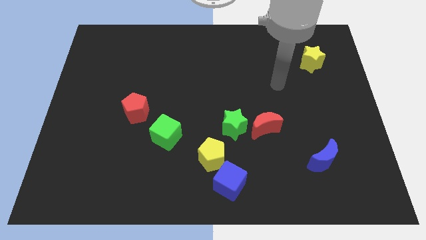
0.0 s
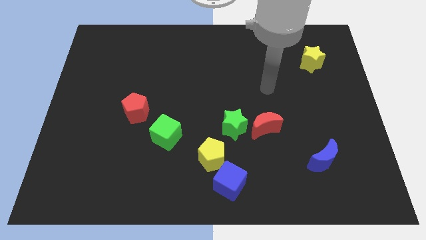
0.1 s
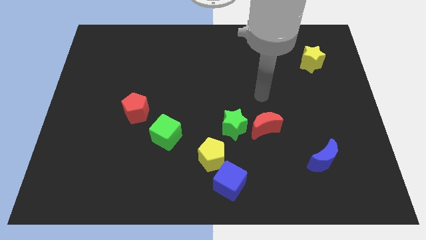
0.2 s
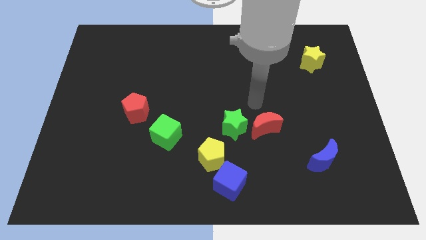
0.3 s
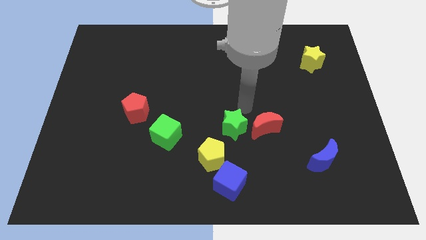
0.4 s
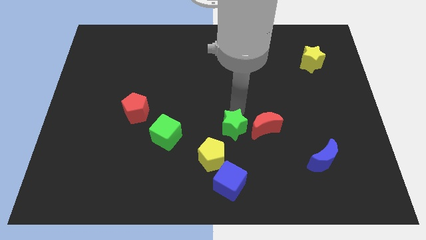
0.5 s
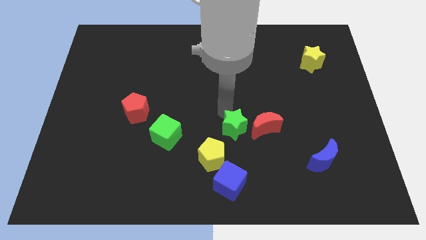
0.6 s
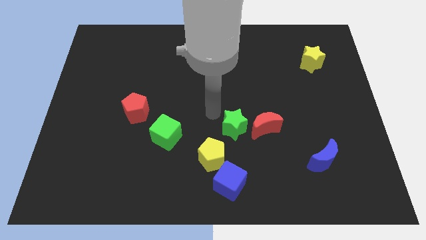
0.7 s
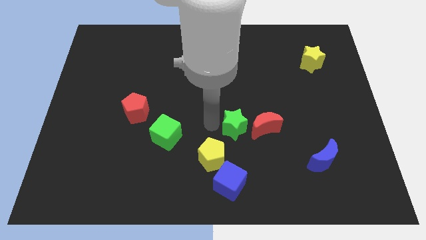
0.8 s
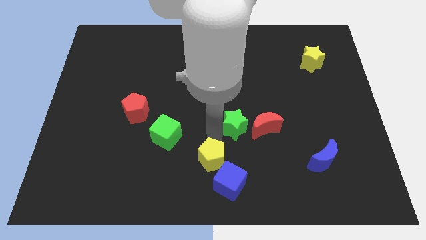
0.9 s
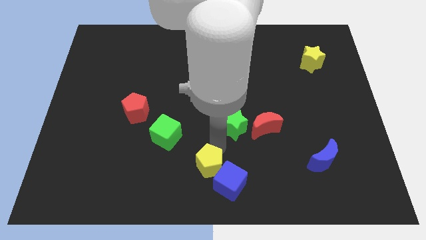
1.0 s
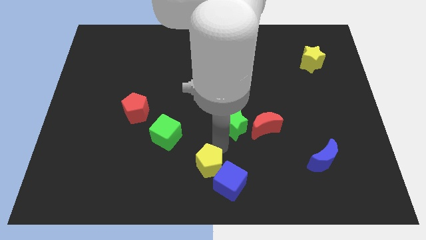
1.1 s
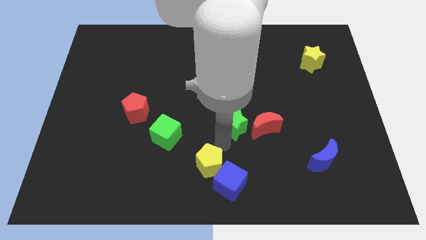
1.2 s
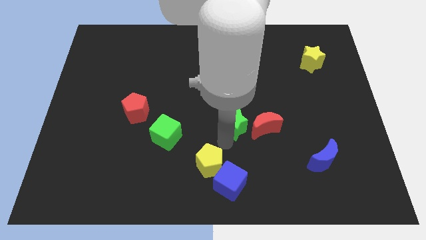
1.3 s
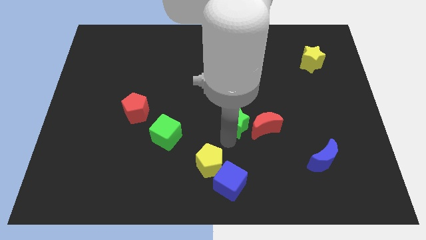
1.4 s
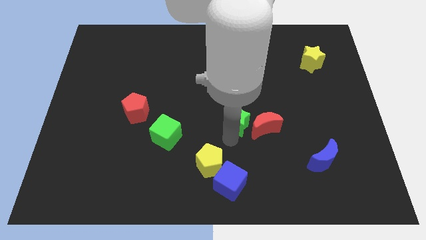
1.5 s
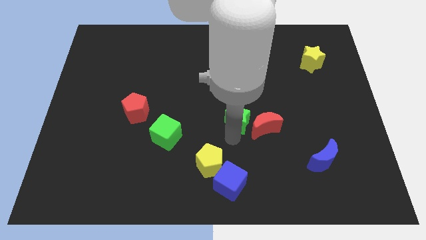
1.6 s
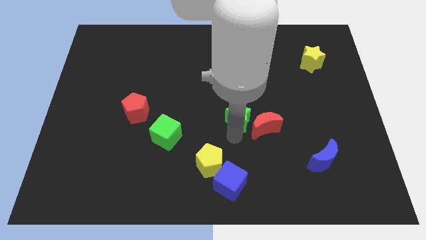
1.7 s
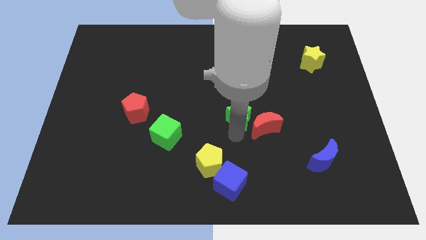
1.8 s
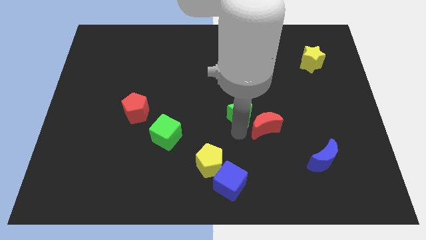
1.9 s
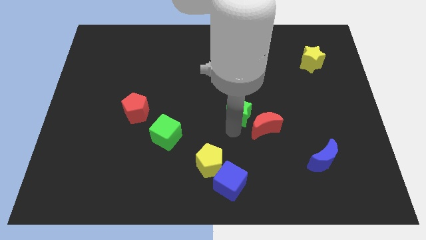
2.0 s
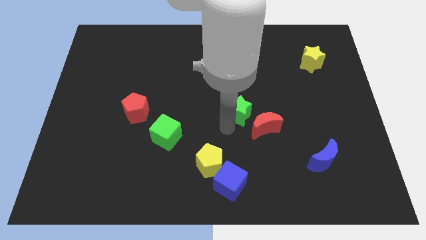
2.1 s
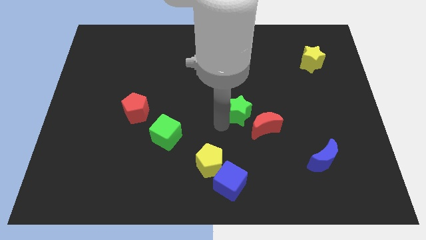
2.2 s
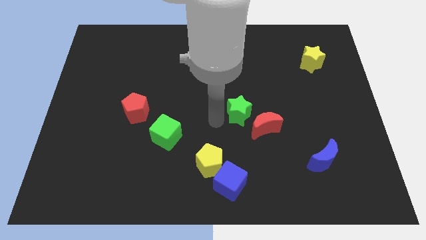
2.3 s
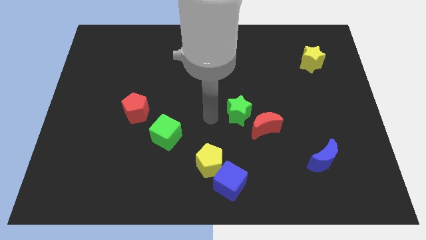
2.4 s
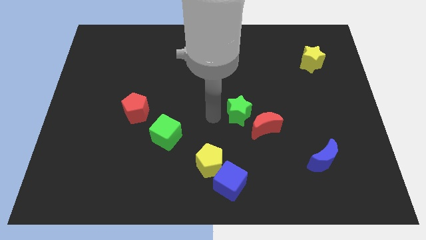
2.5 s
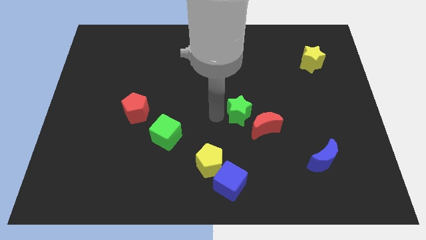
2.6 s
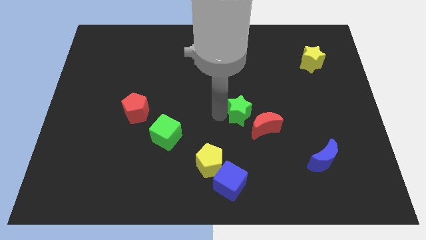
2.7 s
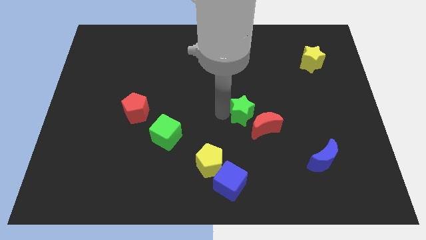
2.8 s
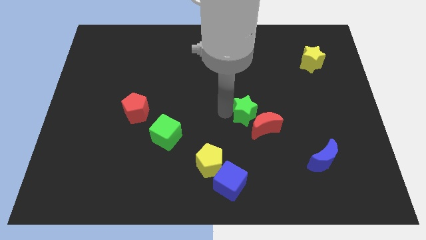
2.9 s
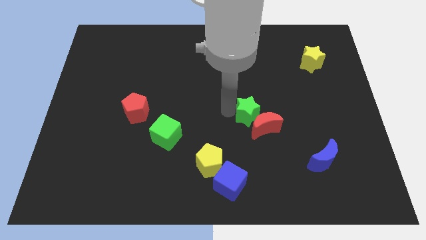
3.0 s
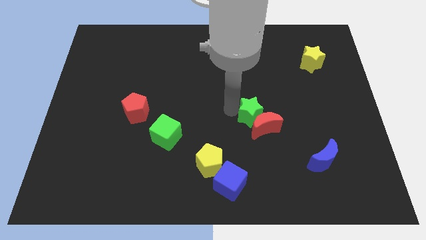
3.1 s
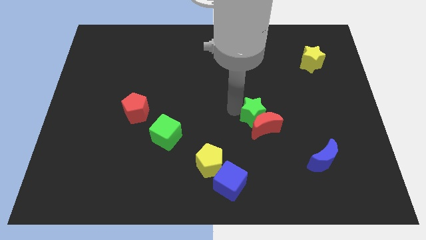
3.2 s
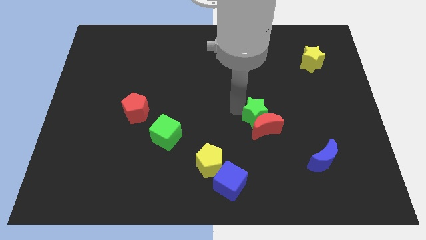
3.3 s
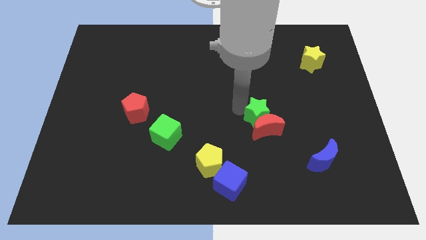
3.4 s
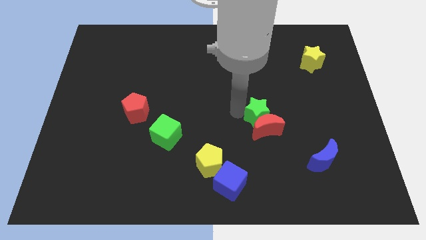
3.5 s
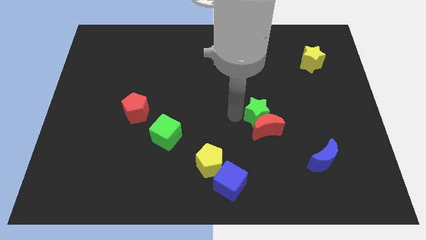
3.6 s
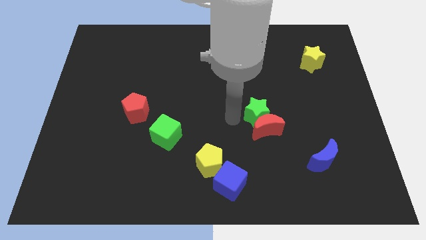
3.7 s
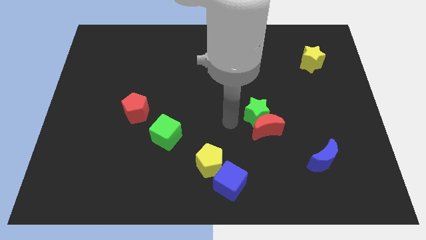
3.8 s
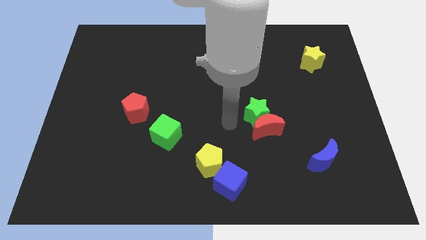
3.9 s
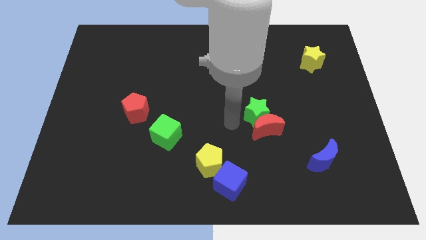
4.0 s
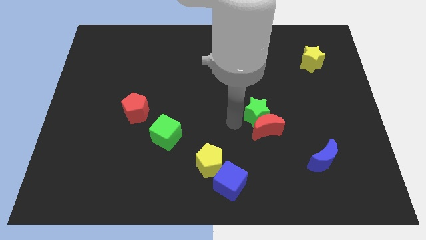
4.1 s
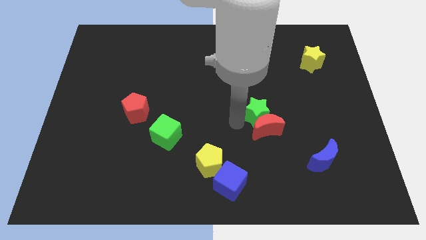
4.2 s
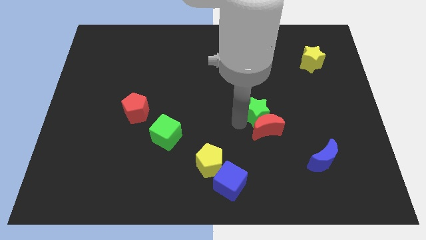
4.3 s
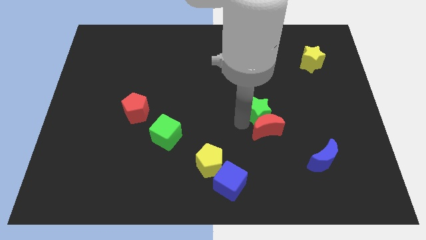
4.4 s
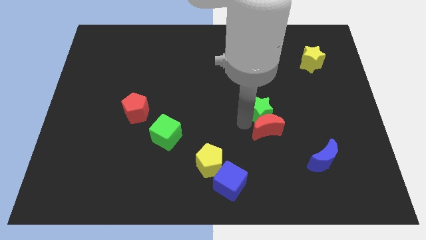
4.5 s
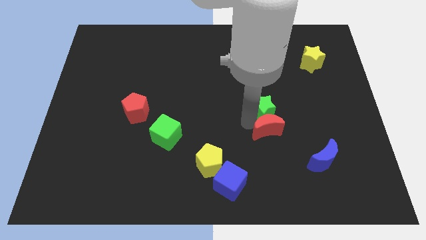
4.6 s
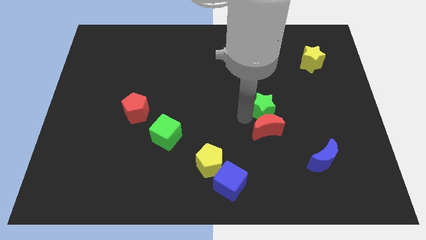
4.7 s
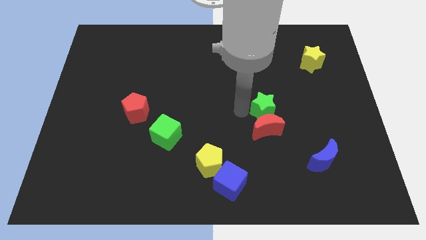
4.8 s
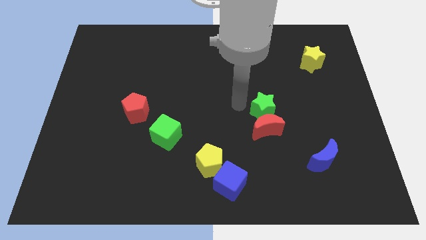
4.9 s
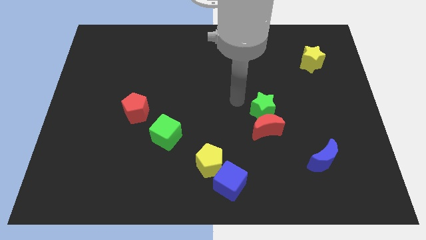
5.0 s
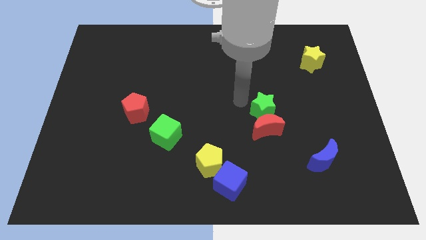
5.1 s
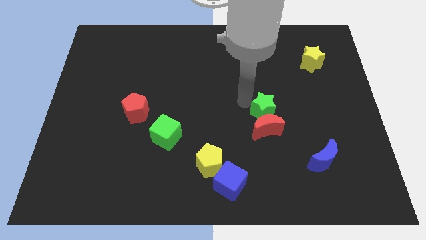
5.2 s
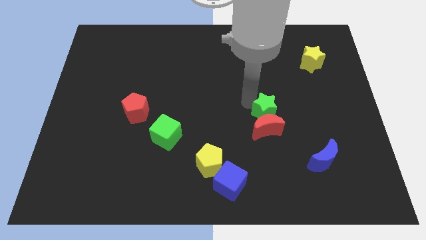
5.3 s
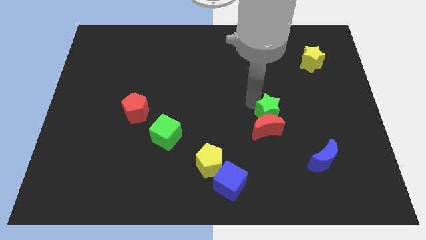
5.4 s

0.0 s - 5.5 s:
slightly move the green star right

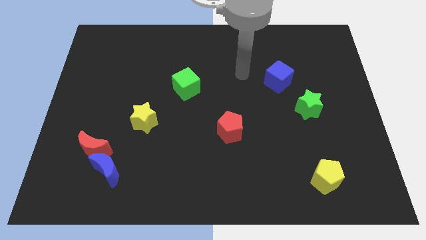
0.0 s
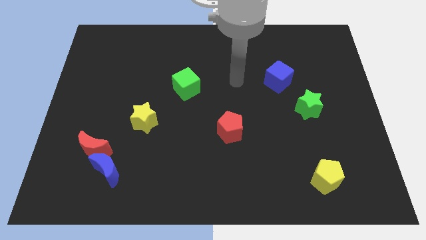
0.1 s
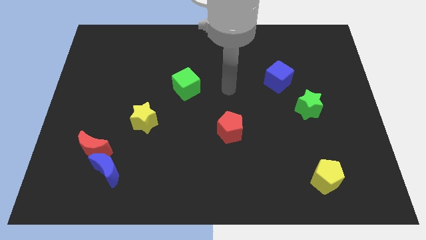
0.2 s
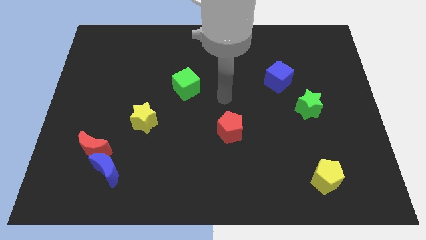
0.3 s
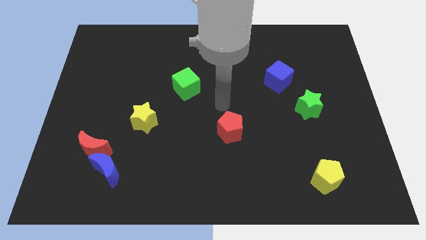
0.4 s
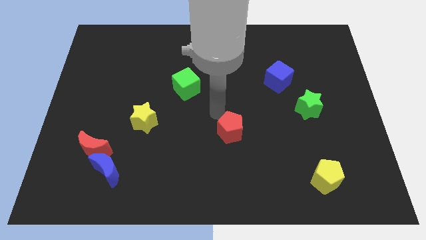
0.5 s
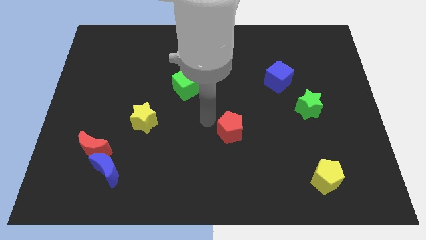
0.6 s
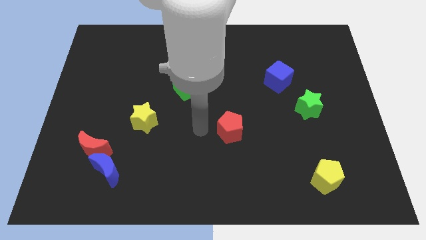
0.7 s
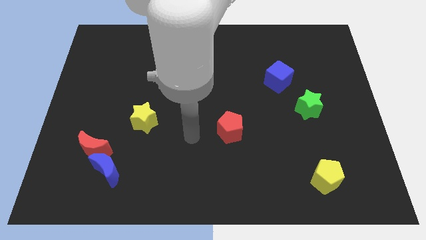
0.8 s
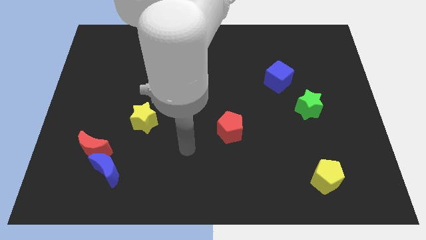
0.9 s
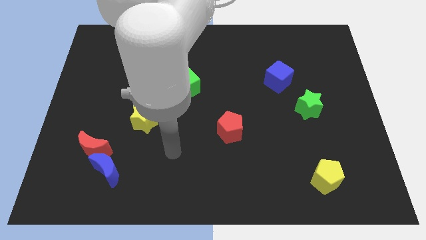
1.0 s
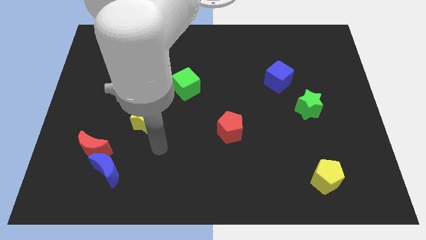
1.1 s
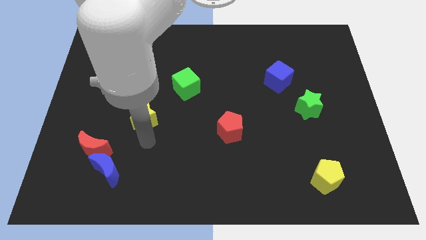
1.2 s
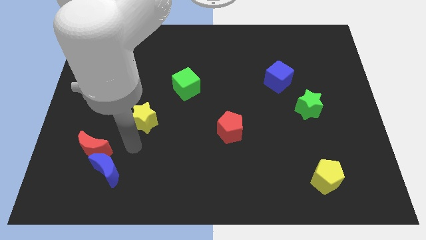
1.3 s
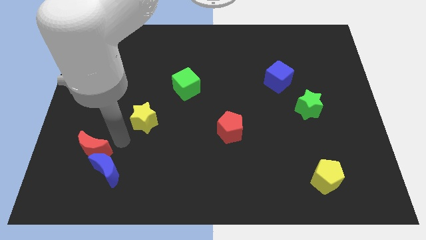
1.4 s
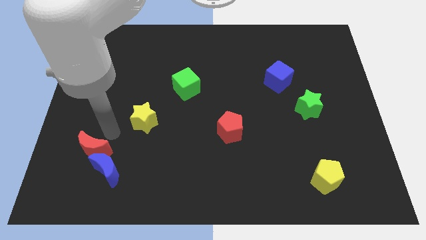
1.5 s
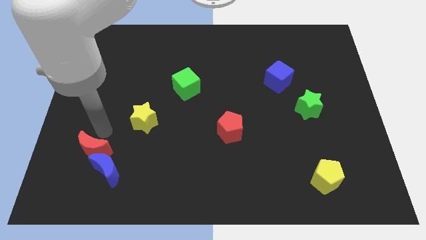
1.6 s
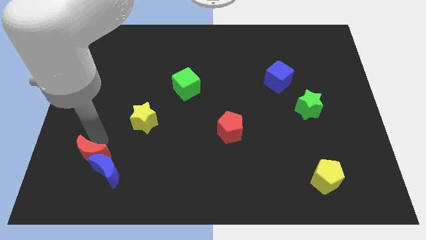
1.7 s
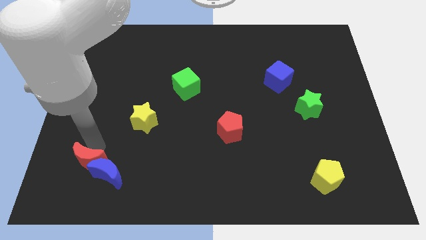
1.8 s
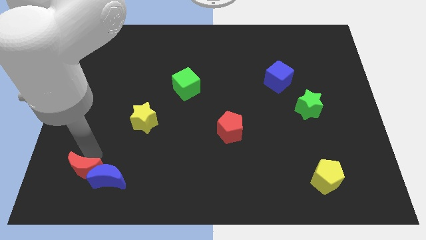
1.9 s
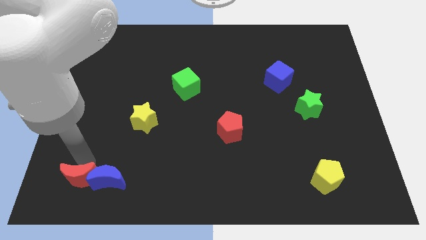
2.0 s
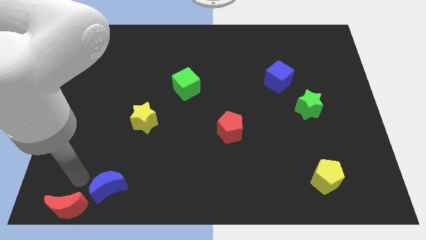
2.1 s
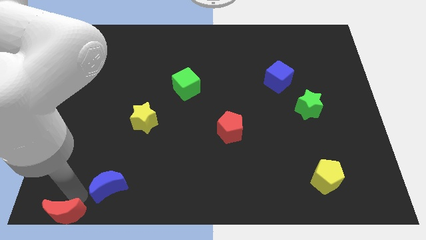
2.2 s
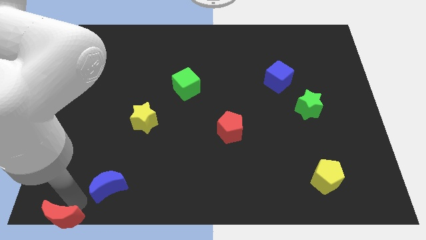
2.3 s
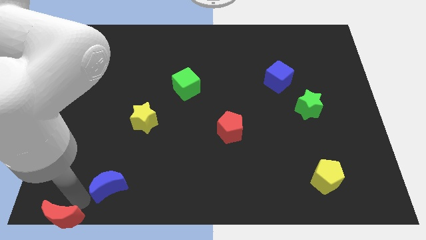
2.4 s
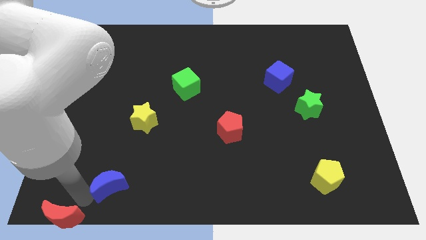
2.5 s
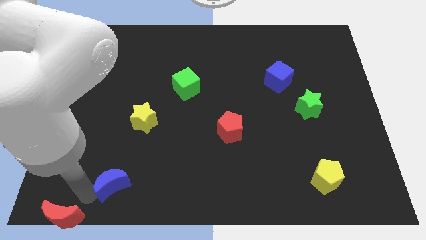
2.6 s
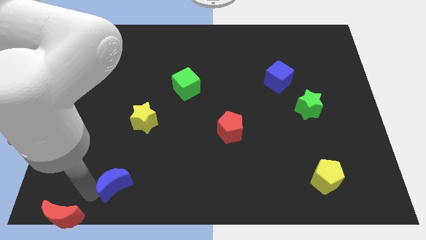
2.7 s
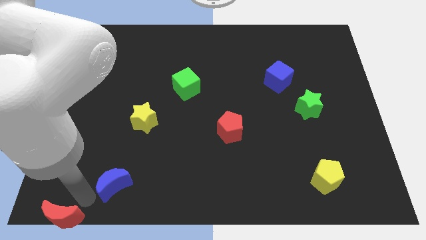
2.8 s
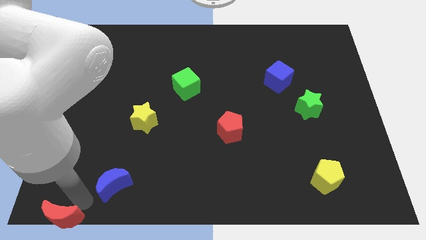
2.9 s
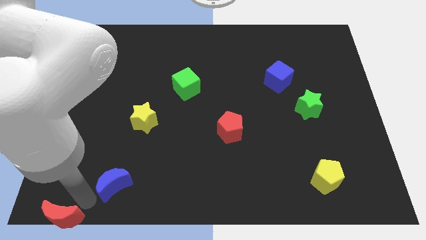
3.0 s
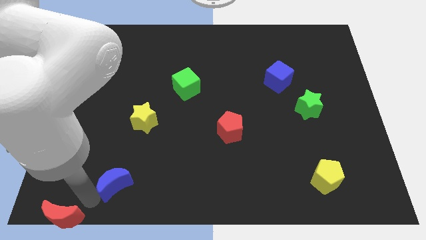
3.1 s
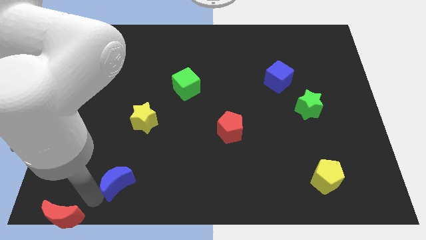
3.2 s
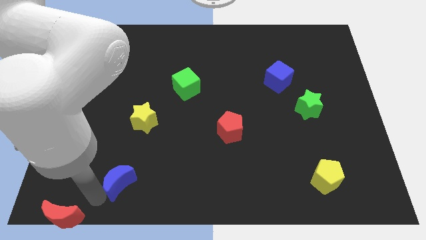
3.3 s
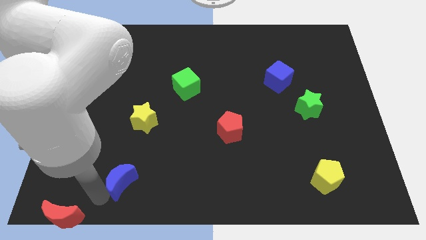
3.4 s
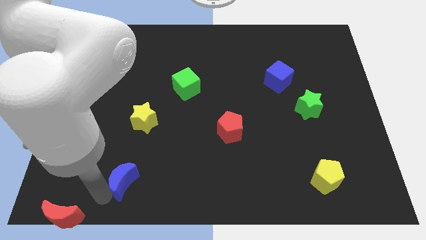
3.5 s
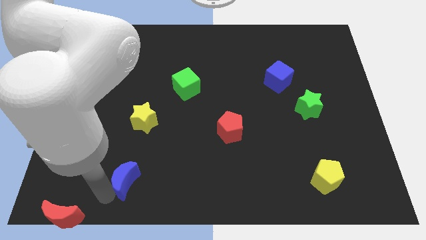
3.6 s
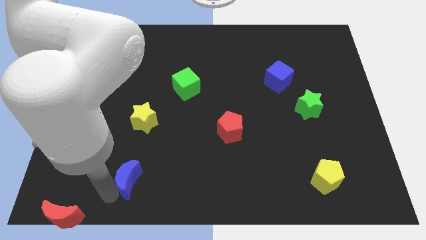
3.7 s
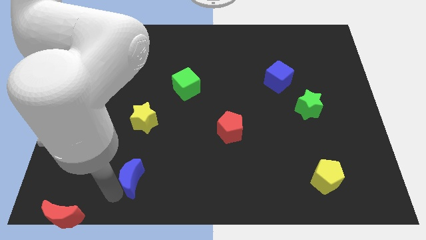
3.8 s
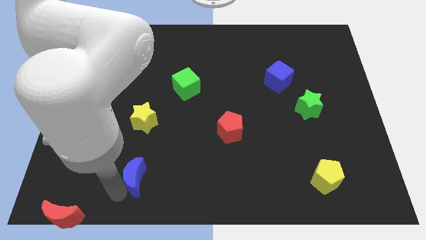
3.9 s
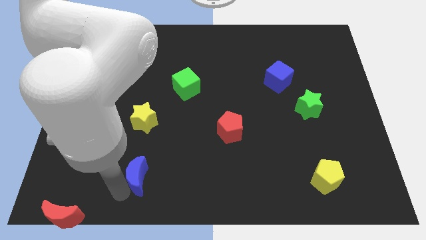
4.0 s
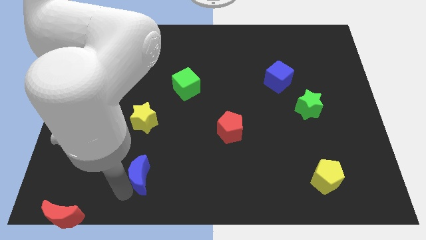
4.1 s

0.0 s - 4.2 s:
slide the blue moon somewhat right
